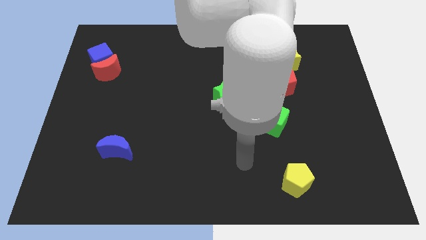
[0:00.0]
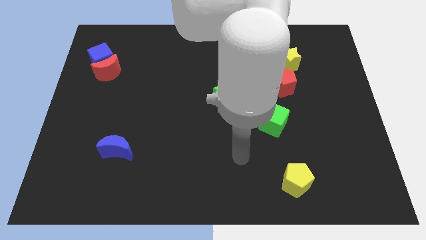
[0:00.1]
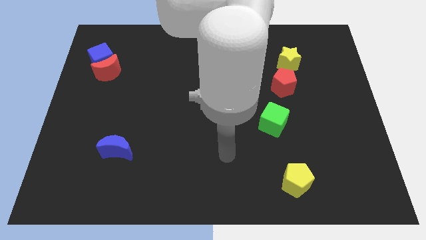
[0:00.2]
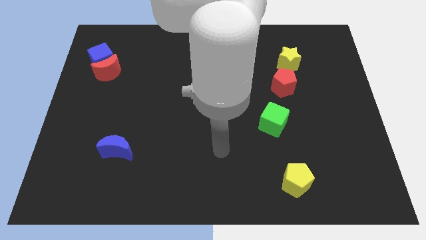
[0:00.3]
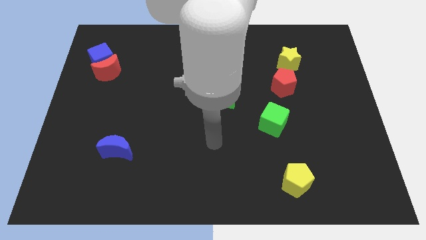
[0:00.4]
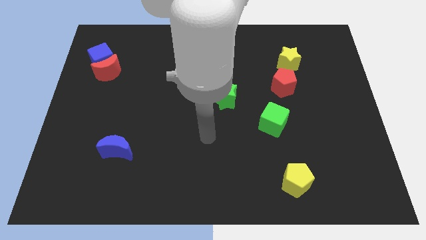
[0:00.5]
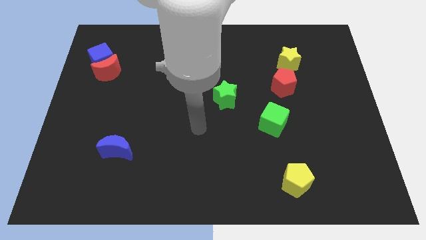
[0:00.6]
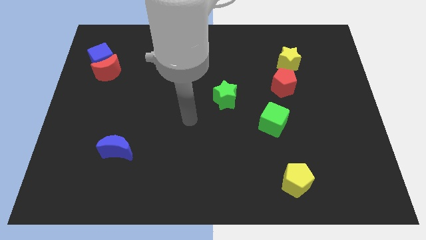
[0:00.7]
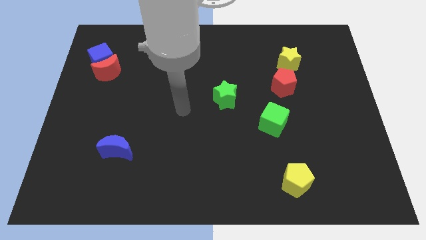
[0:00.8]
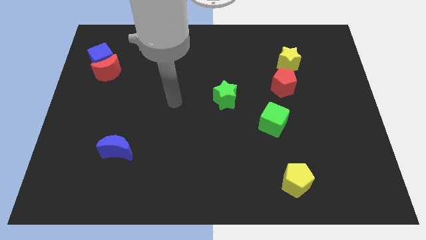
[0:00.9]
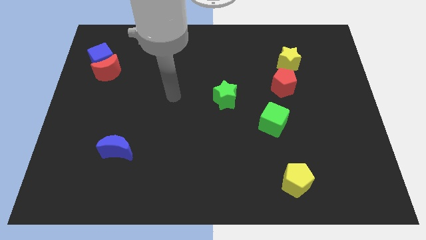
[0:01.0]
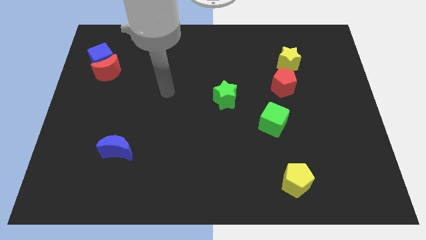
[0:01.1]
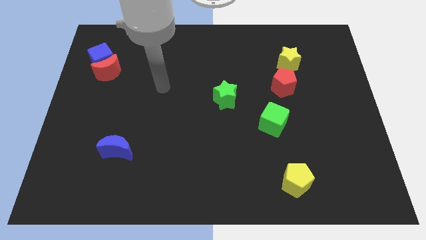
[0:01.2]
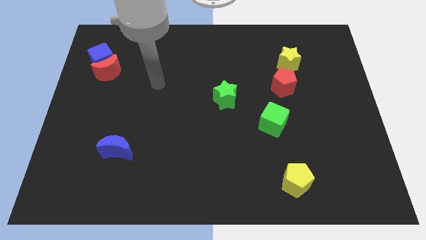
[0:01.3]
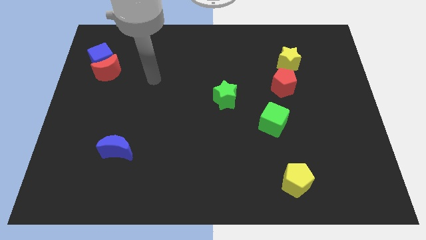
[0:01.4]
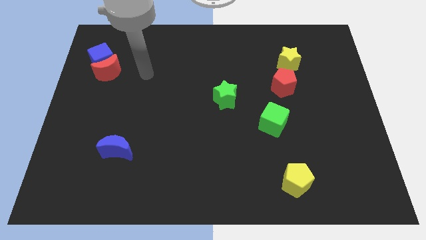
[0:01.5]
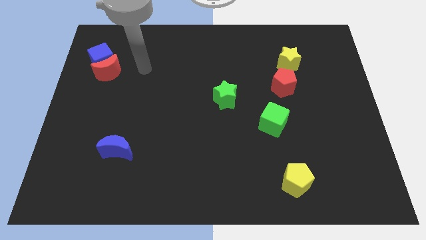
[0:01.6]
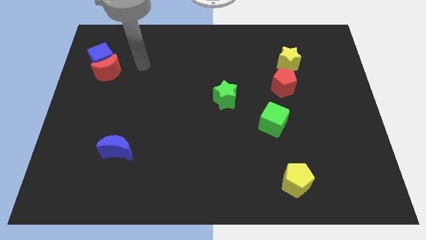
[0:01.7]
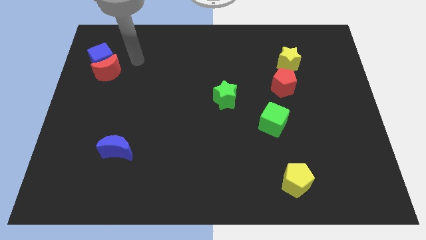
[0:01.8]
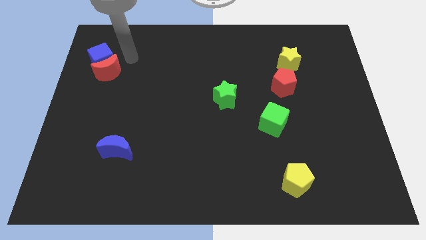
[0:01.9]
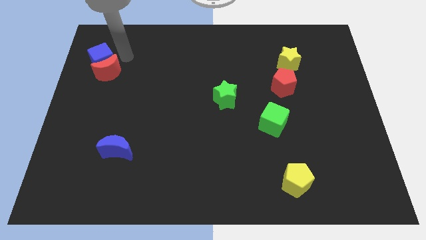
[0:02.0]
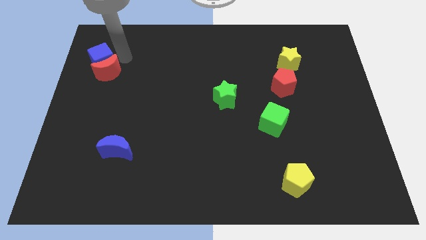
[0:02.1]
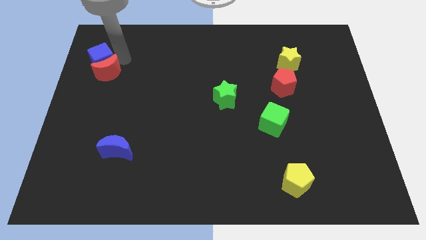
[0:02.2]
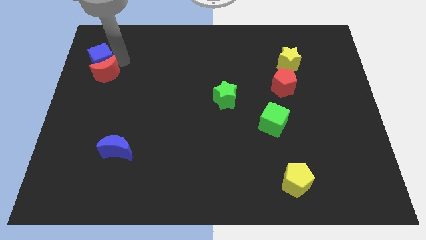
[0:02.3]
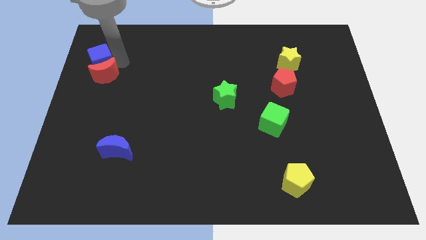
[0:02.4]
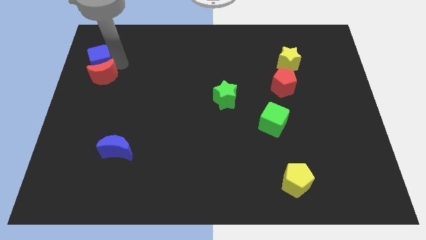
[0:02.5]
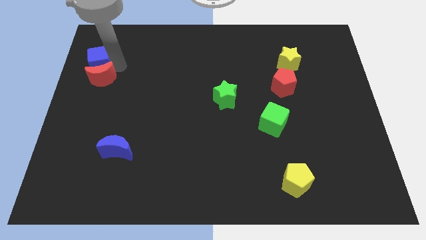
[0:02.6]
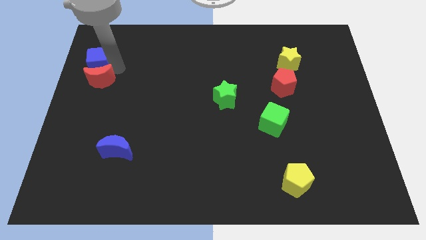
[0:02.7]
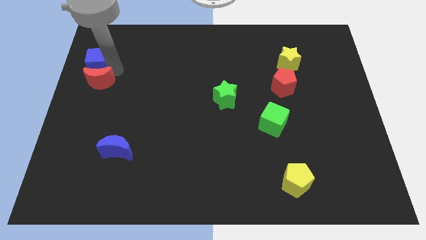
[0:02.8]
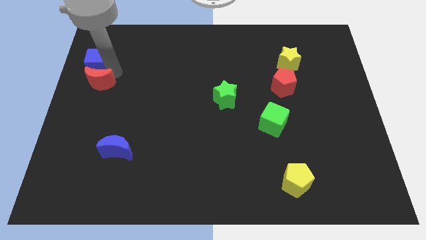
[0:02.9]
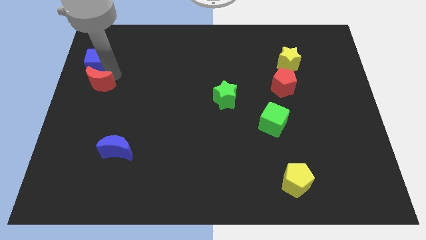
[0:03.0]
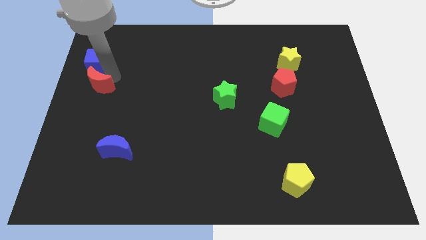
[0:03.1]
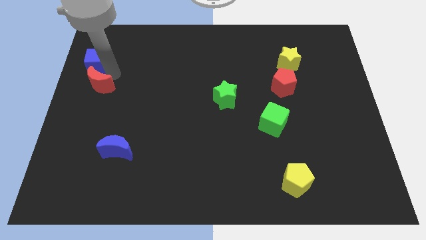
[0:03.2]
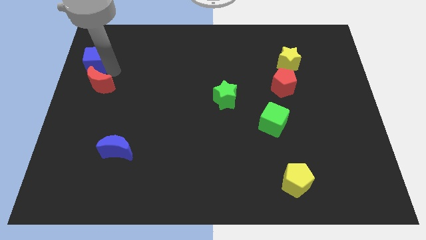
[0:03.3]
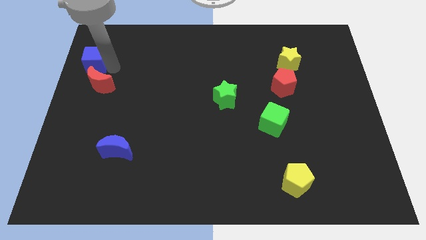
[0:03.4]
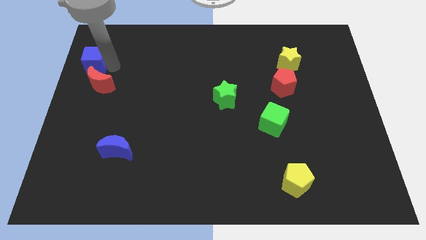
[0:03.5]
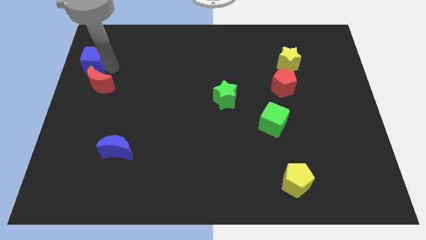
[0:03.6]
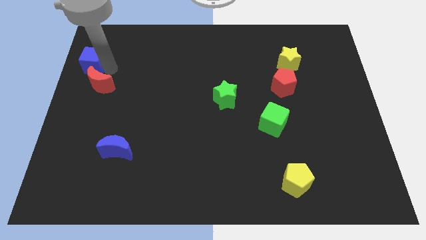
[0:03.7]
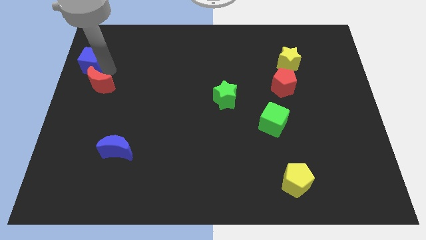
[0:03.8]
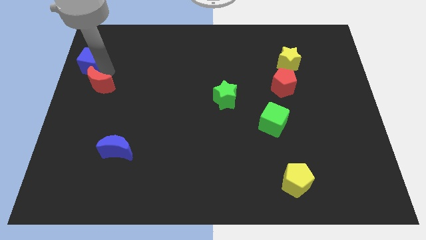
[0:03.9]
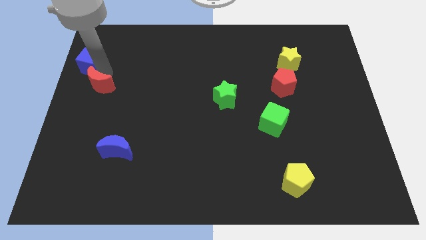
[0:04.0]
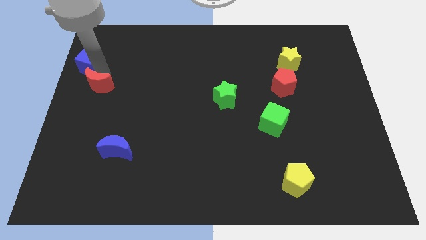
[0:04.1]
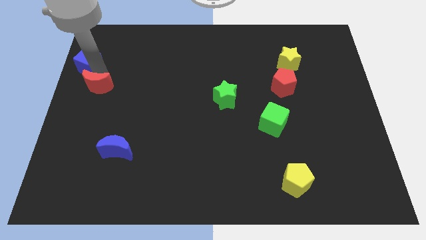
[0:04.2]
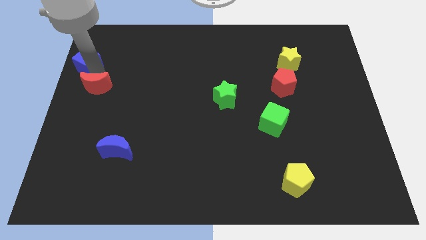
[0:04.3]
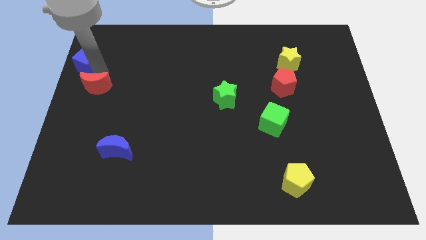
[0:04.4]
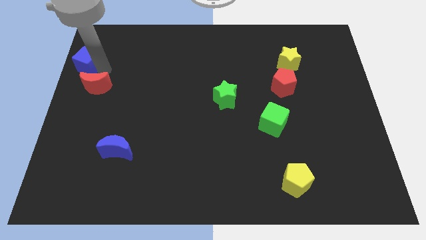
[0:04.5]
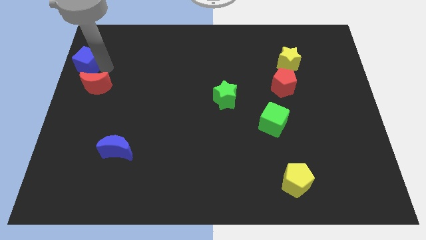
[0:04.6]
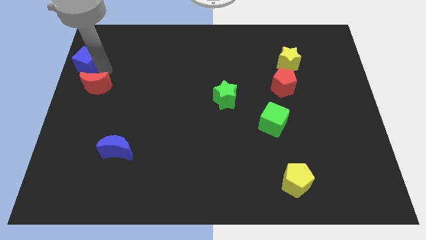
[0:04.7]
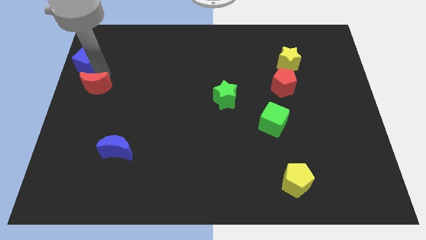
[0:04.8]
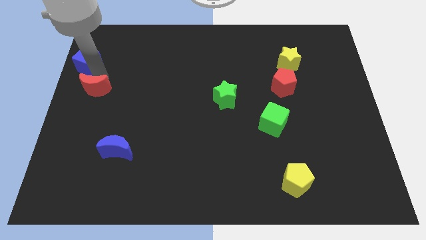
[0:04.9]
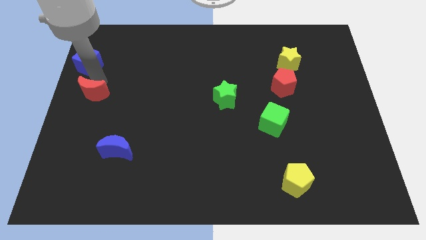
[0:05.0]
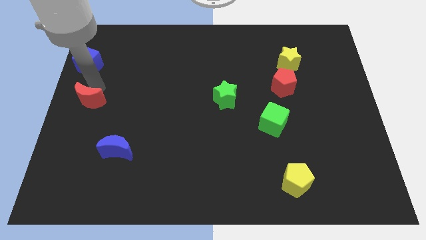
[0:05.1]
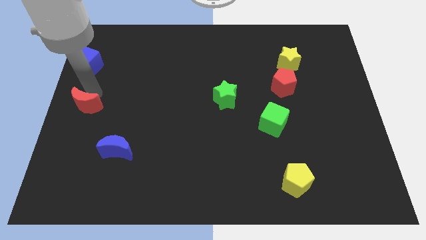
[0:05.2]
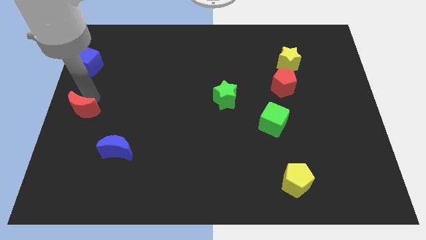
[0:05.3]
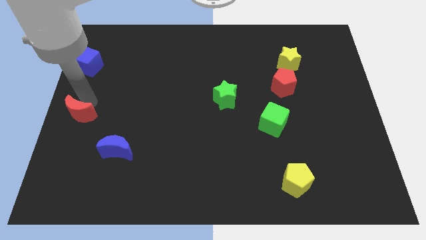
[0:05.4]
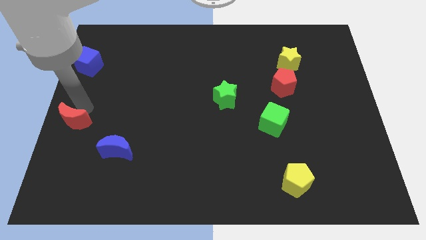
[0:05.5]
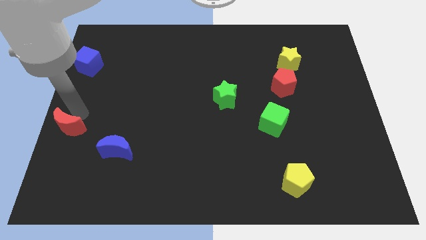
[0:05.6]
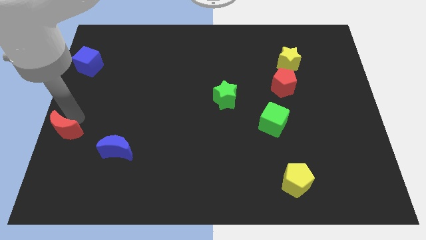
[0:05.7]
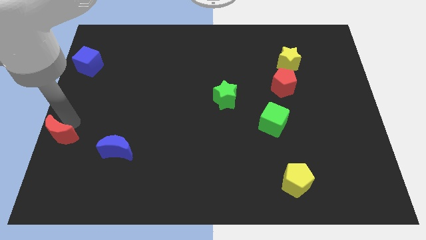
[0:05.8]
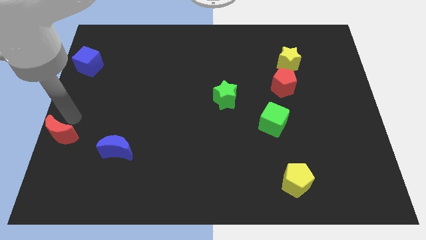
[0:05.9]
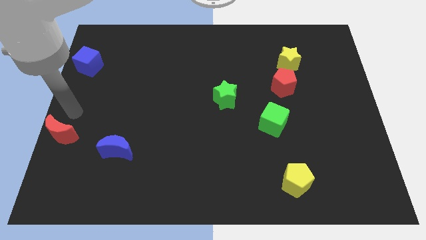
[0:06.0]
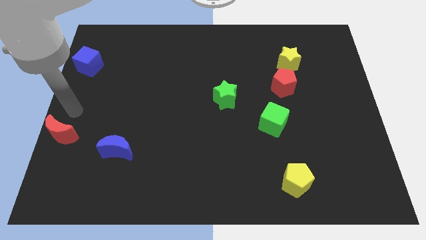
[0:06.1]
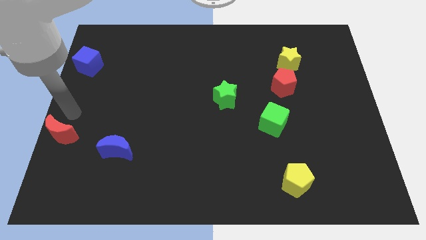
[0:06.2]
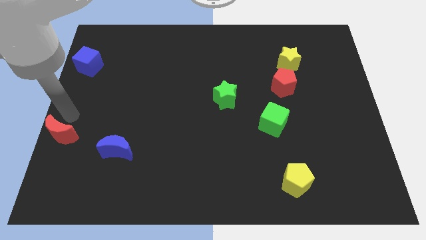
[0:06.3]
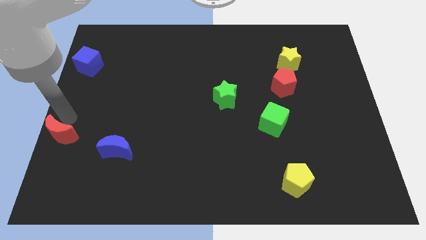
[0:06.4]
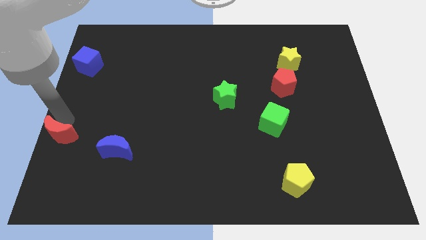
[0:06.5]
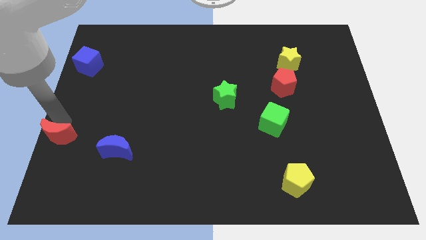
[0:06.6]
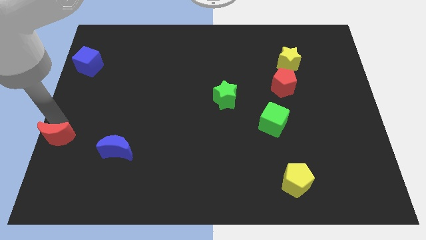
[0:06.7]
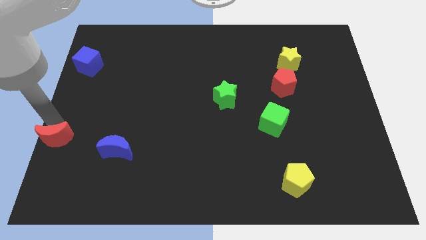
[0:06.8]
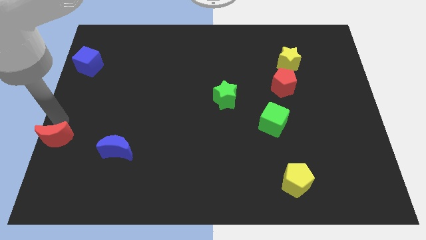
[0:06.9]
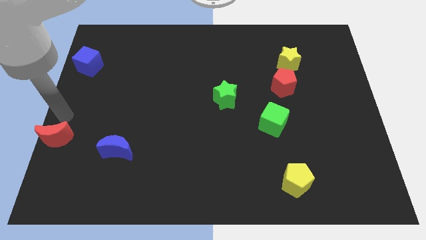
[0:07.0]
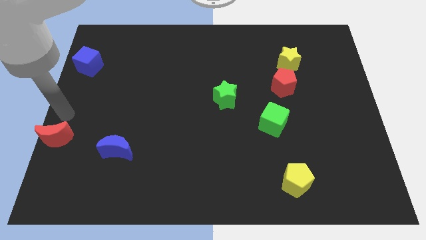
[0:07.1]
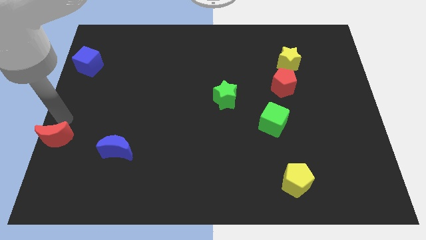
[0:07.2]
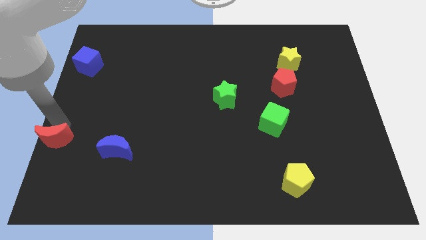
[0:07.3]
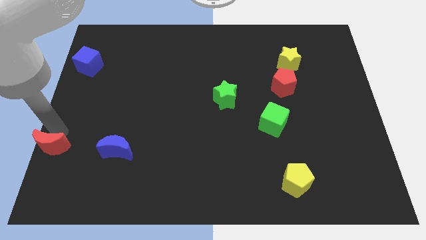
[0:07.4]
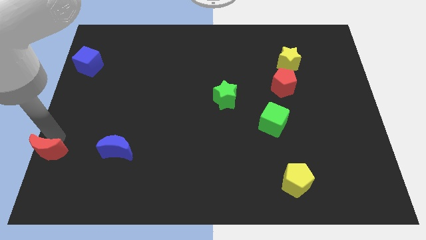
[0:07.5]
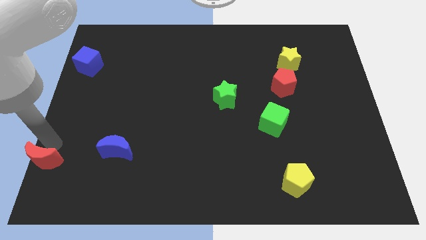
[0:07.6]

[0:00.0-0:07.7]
push the red moon to the bottom left
